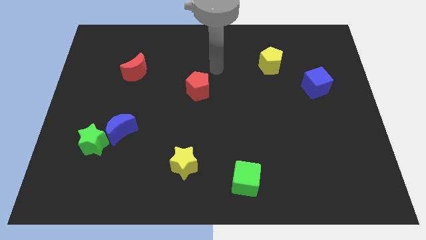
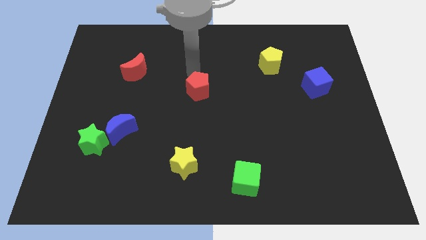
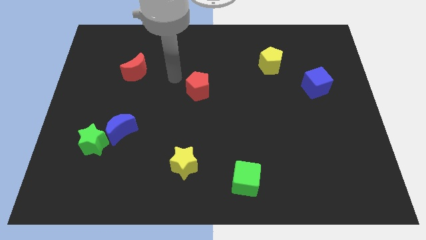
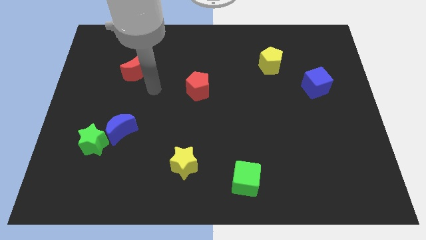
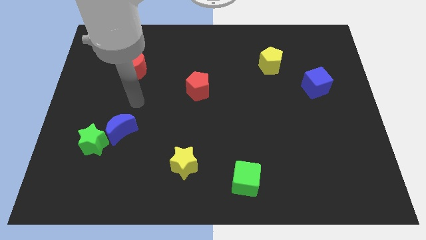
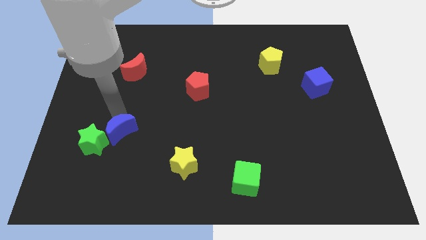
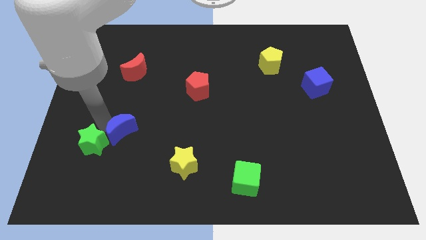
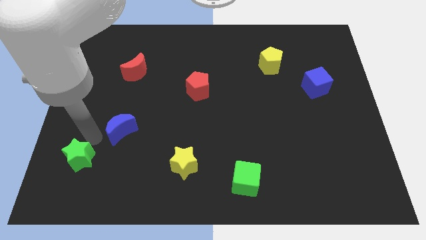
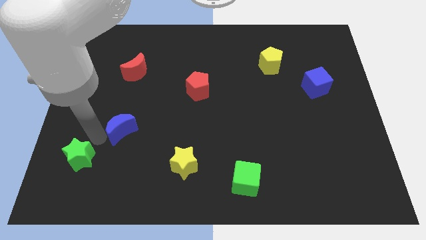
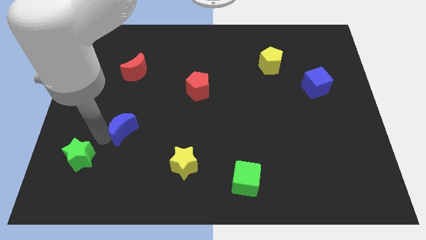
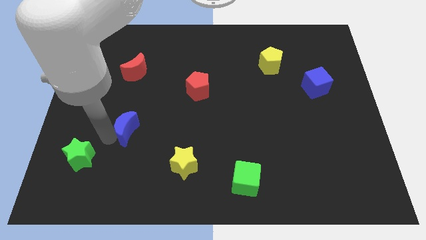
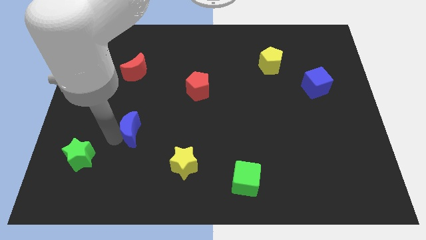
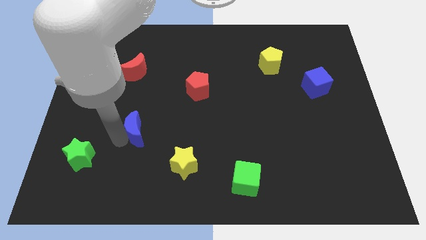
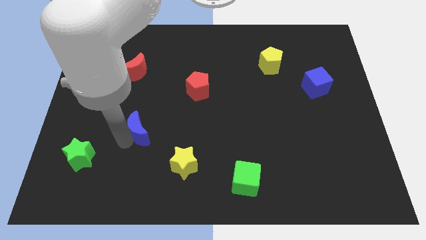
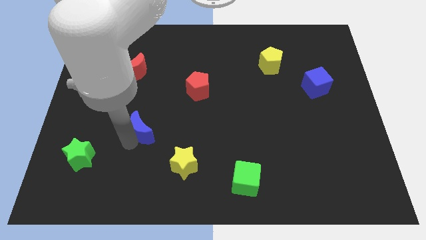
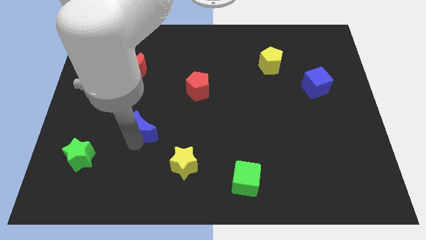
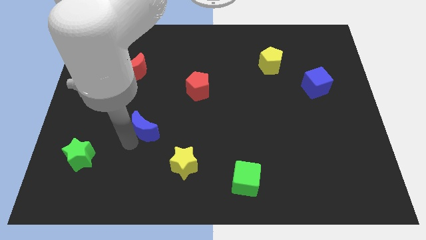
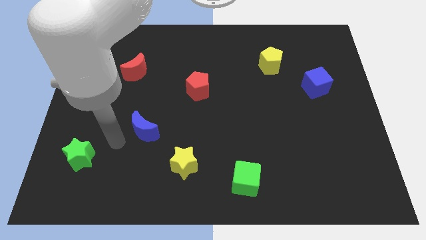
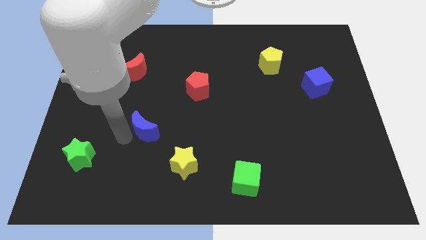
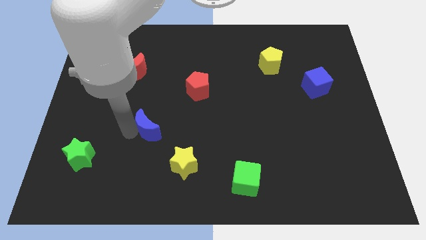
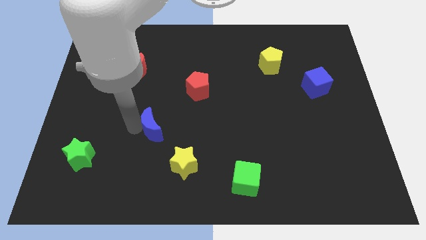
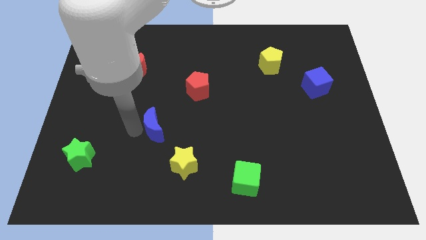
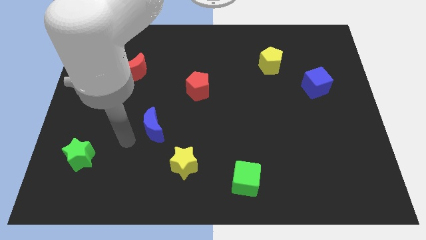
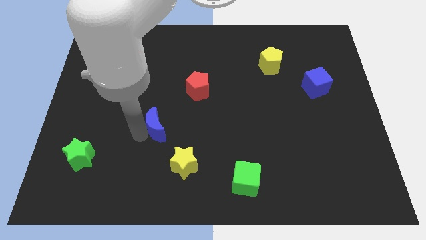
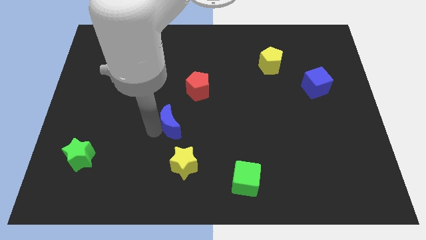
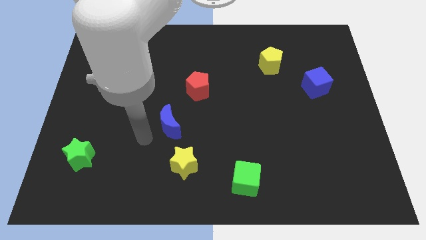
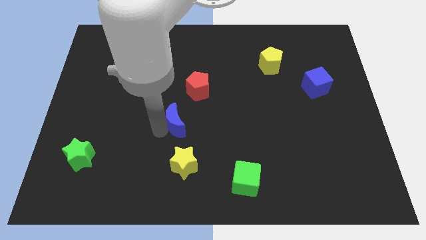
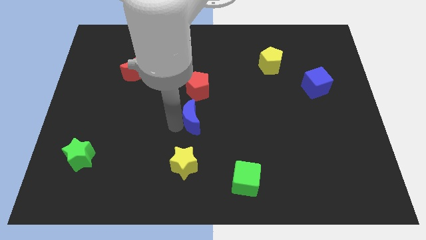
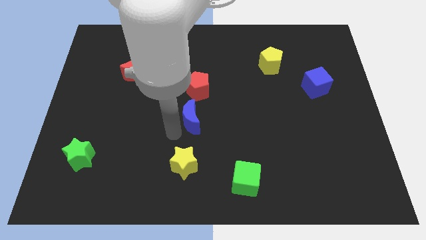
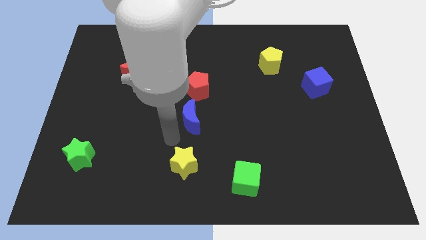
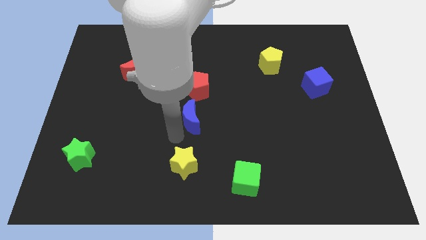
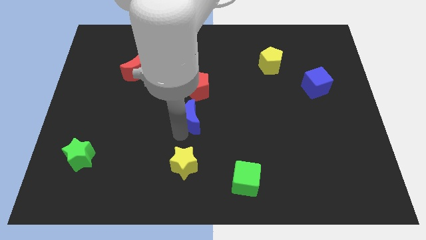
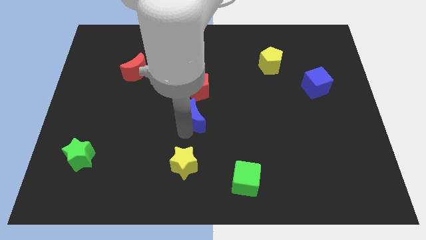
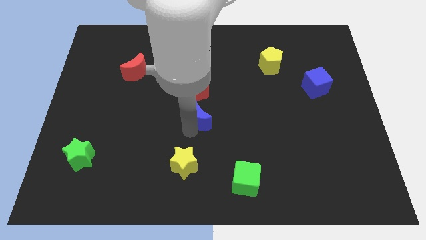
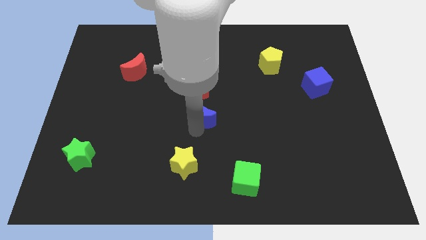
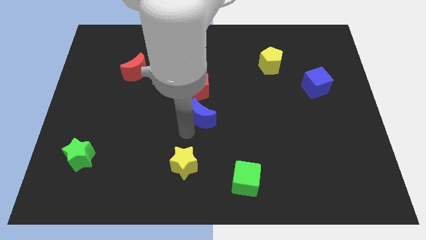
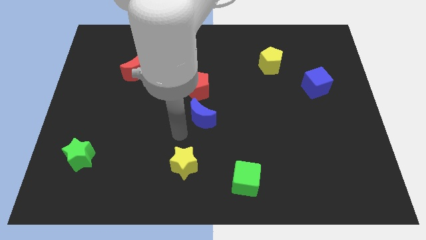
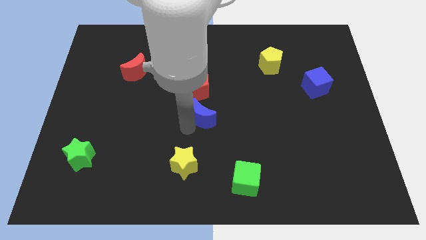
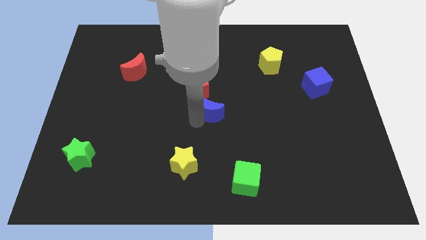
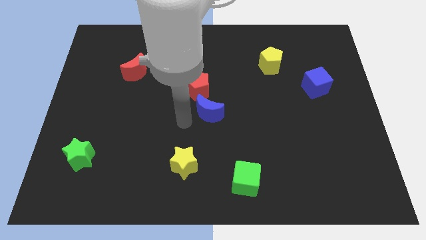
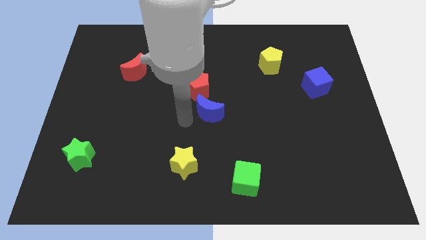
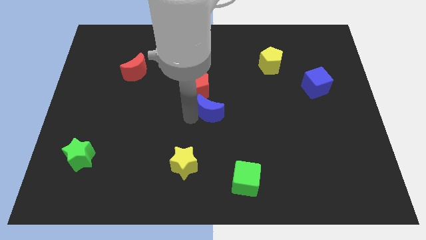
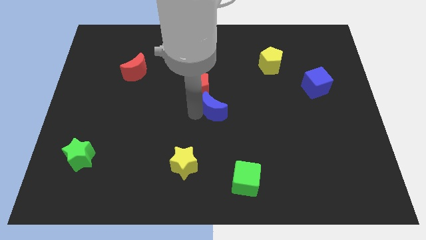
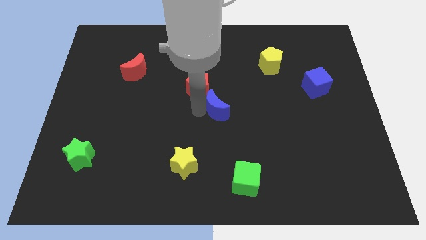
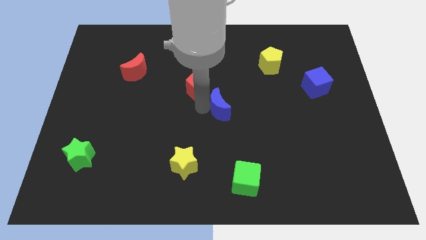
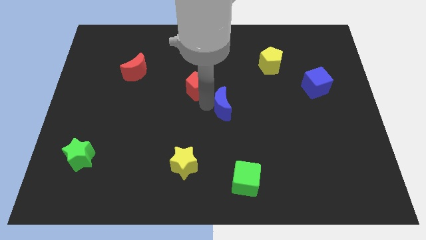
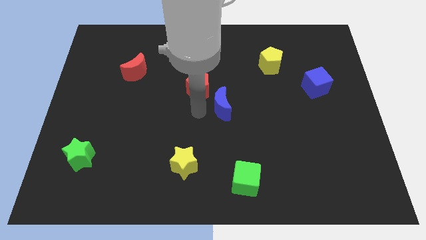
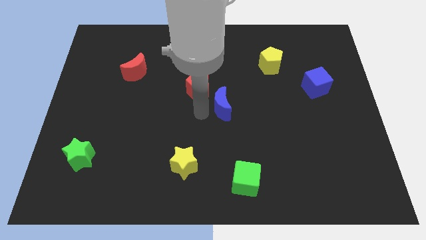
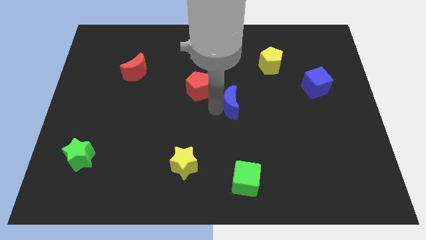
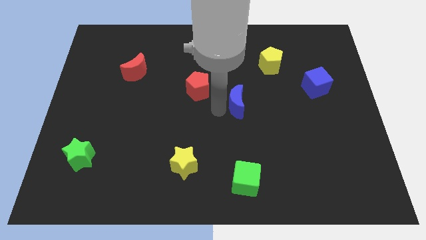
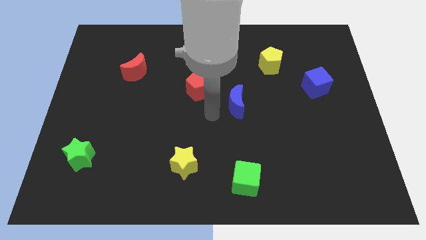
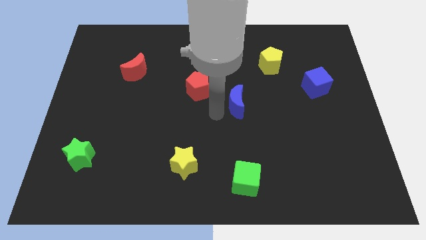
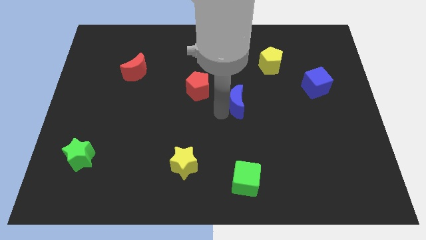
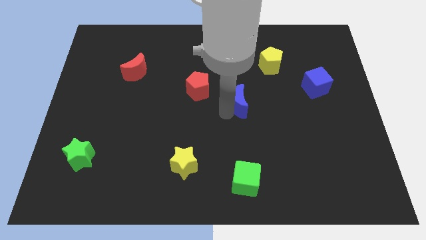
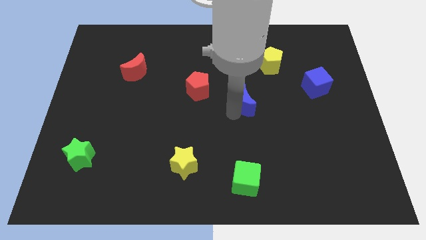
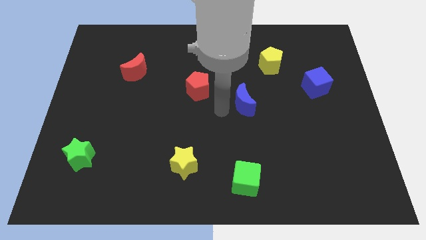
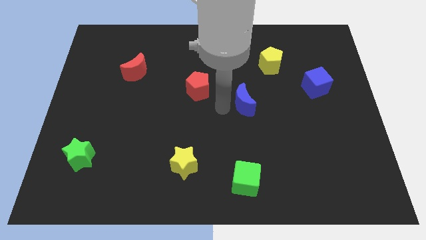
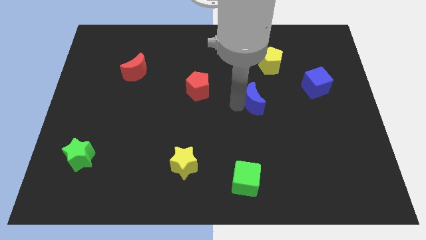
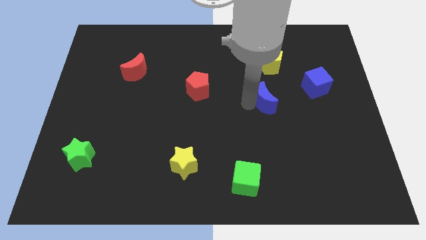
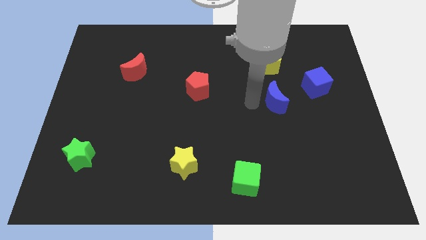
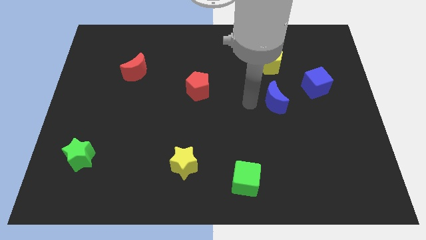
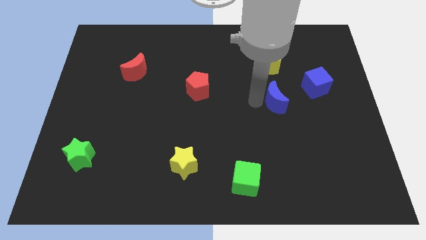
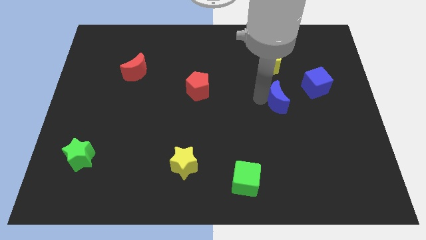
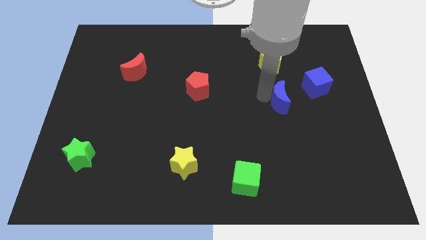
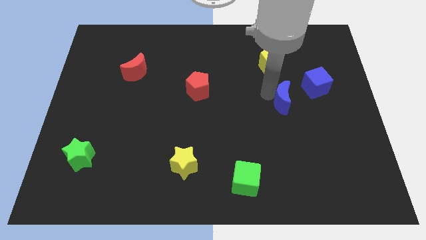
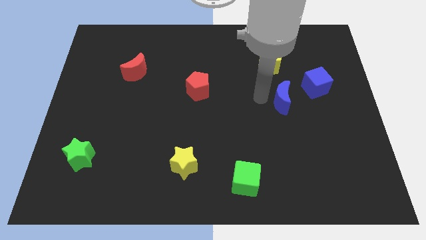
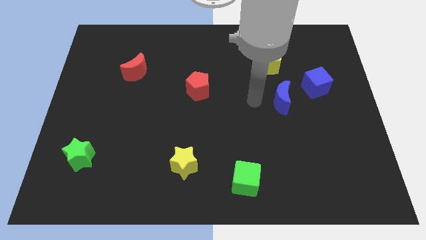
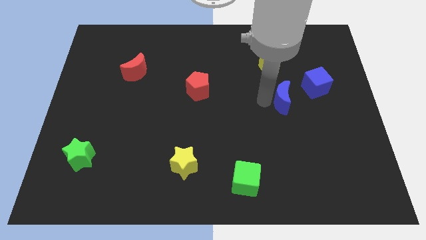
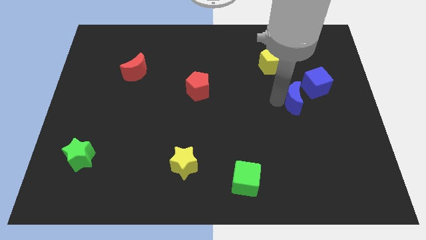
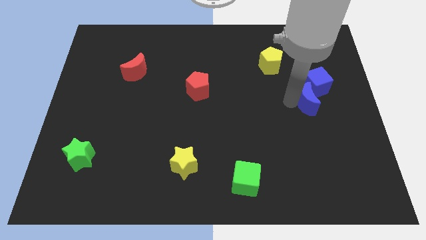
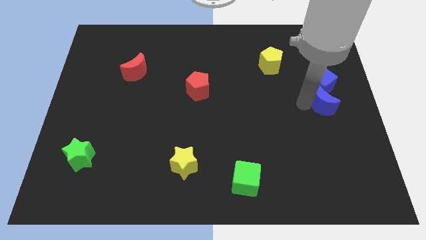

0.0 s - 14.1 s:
push the blue moon to the right side
